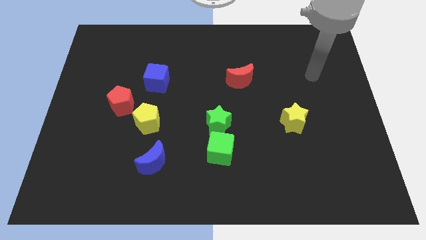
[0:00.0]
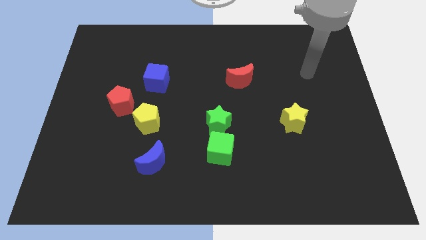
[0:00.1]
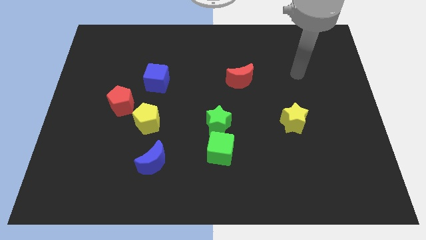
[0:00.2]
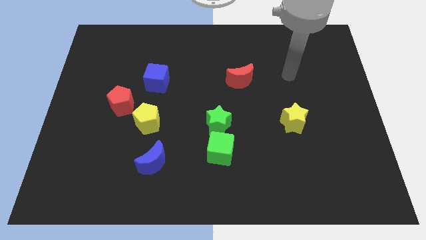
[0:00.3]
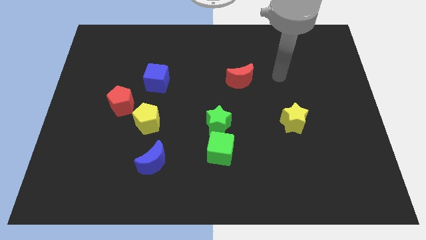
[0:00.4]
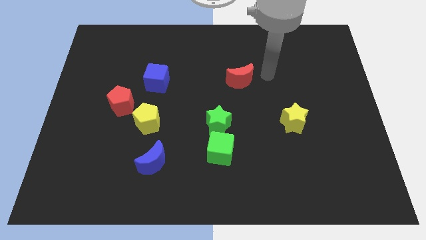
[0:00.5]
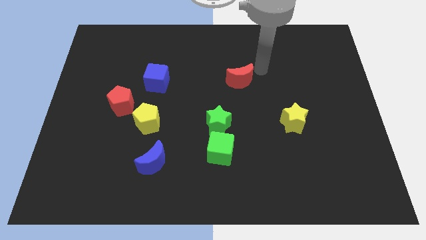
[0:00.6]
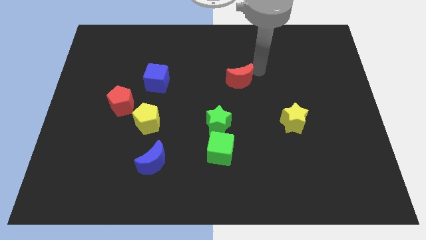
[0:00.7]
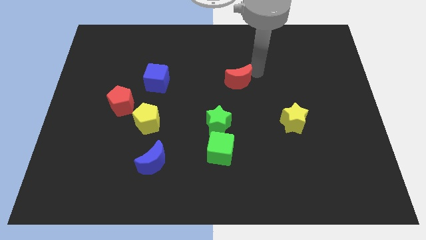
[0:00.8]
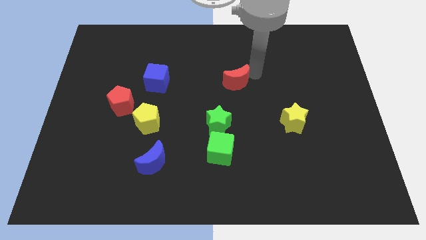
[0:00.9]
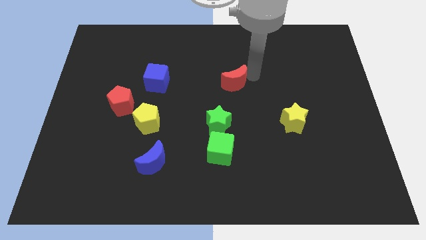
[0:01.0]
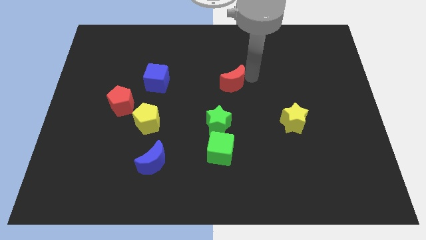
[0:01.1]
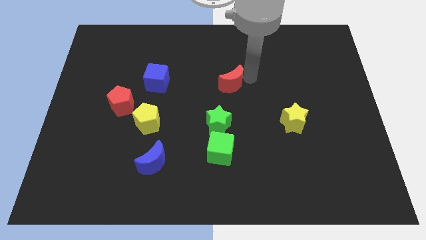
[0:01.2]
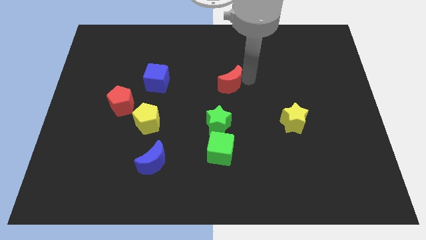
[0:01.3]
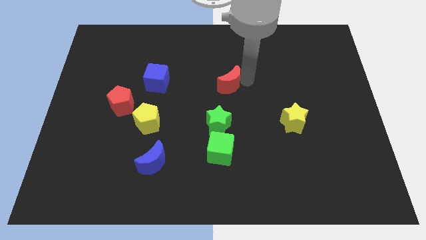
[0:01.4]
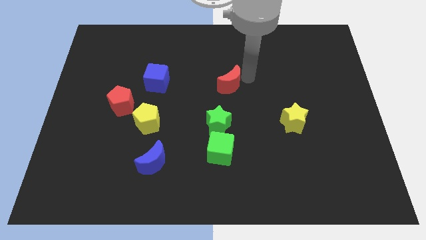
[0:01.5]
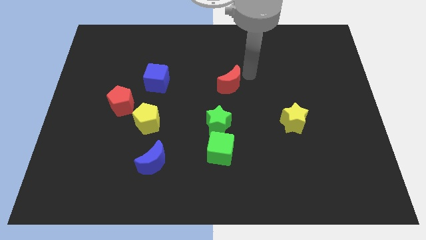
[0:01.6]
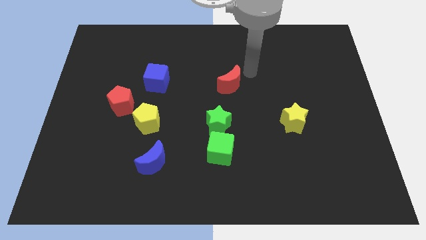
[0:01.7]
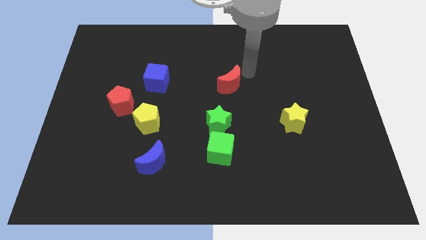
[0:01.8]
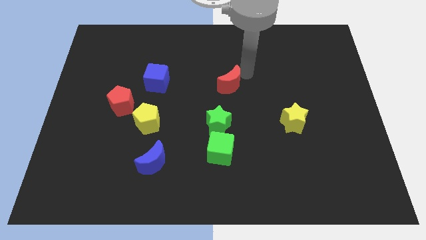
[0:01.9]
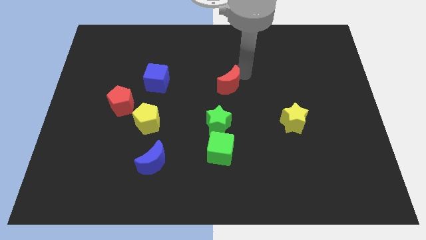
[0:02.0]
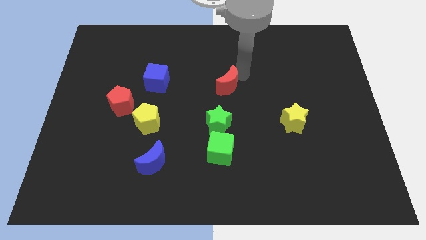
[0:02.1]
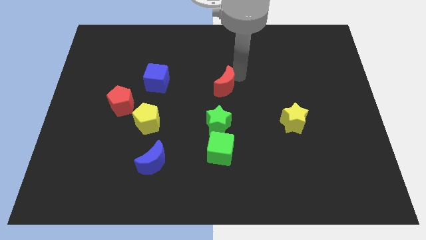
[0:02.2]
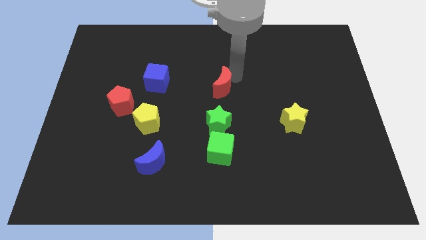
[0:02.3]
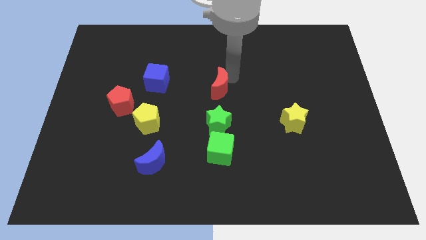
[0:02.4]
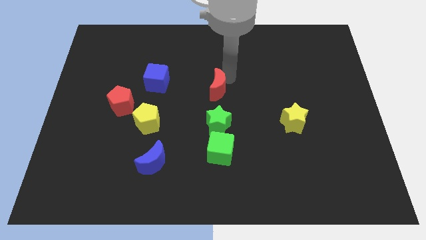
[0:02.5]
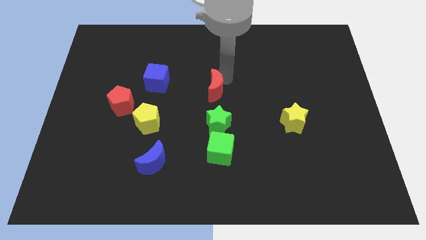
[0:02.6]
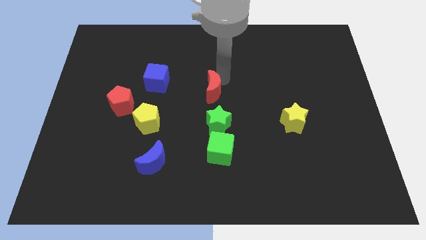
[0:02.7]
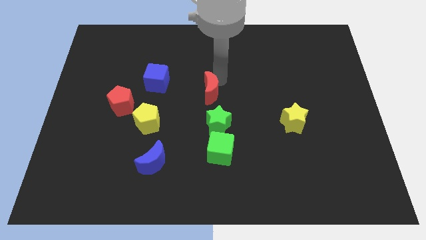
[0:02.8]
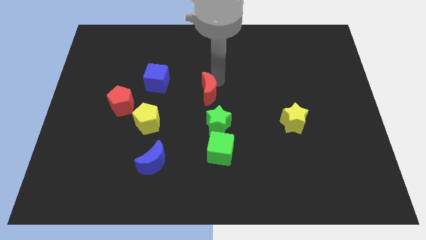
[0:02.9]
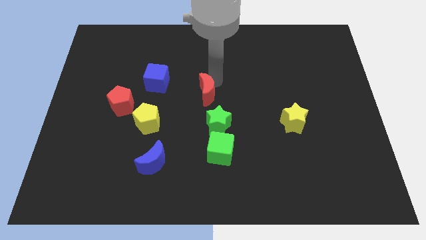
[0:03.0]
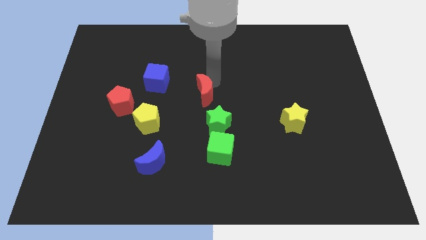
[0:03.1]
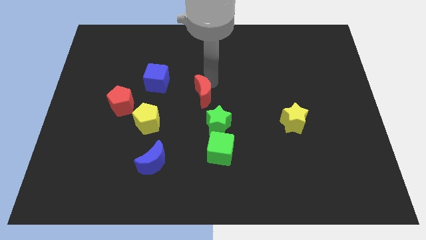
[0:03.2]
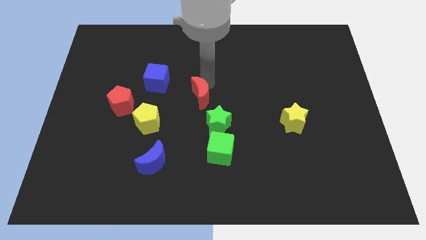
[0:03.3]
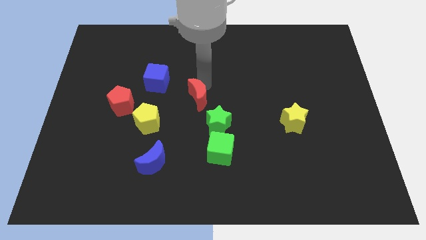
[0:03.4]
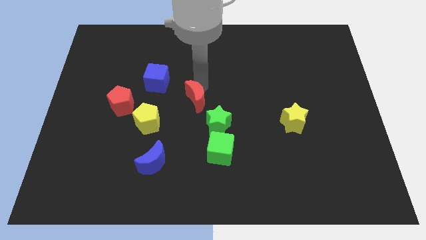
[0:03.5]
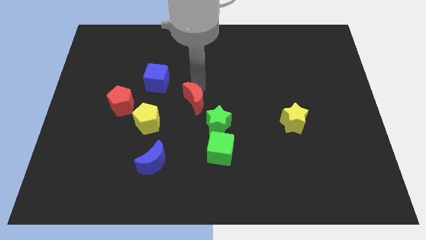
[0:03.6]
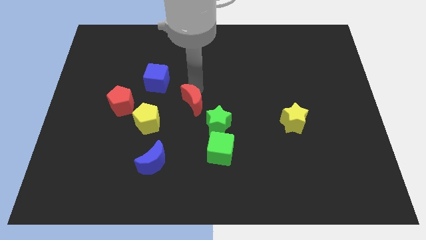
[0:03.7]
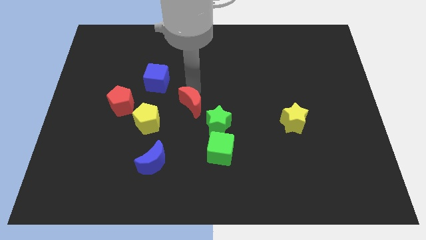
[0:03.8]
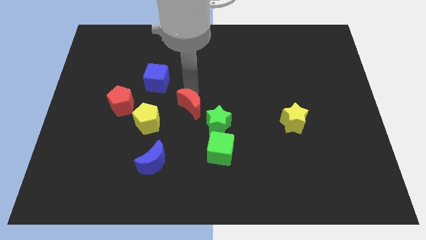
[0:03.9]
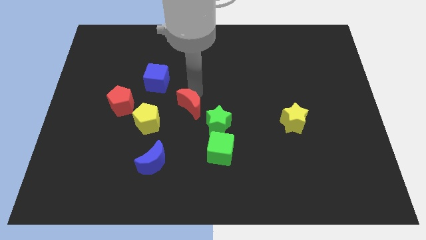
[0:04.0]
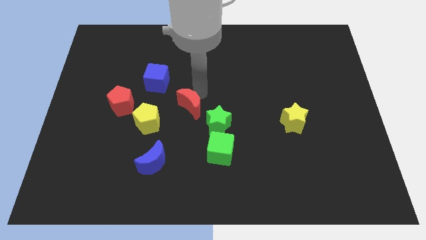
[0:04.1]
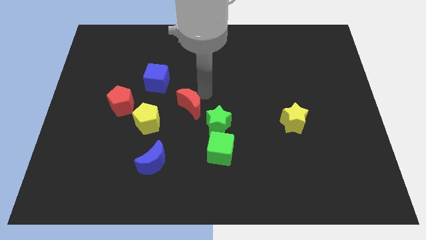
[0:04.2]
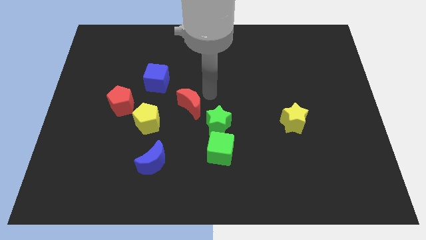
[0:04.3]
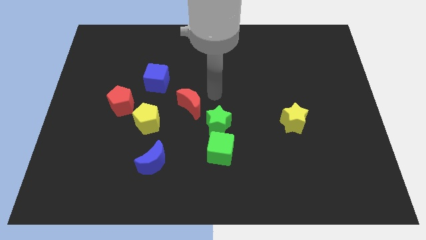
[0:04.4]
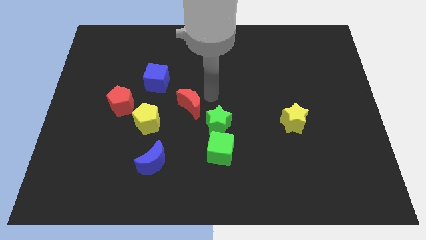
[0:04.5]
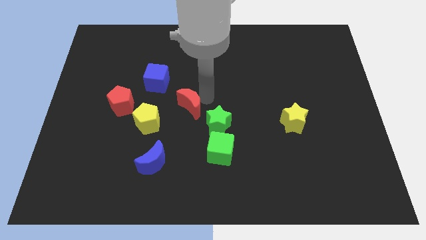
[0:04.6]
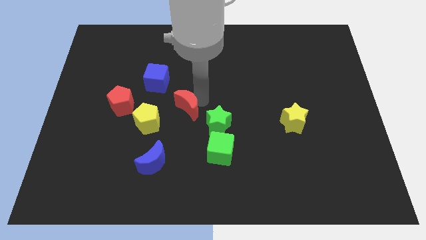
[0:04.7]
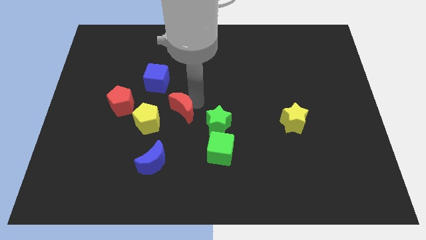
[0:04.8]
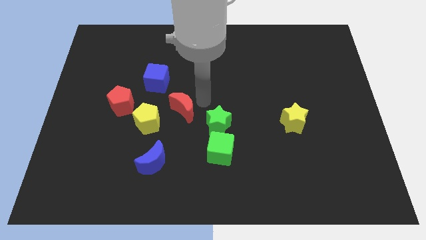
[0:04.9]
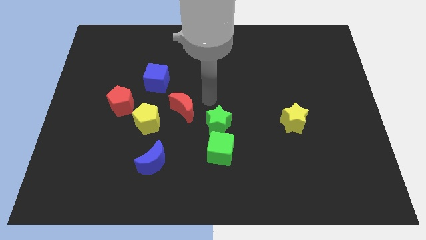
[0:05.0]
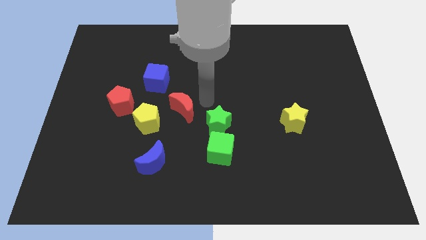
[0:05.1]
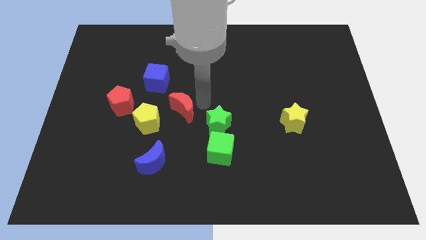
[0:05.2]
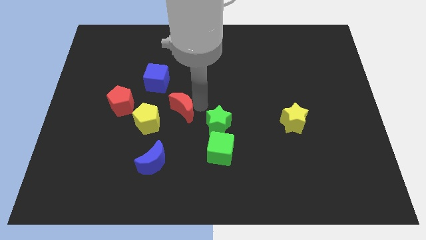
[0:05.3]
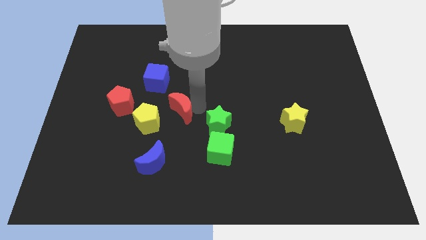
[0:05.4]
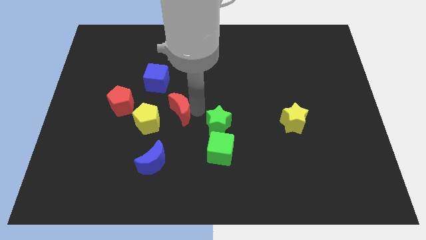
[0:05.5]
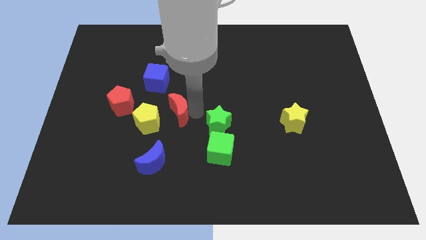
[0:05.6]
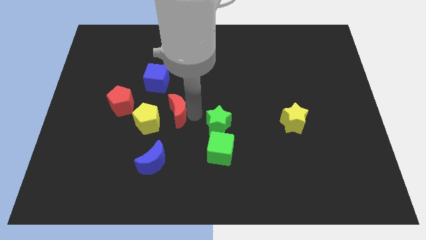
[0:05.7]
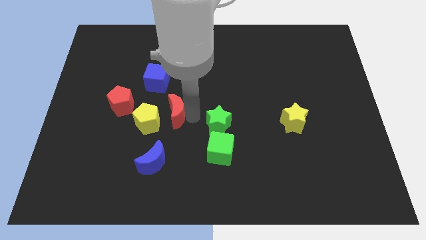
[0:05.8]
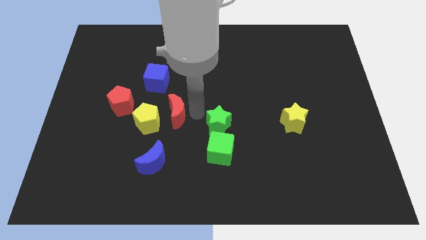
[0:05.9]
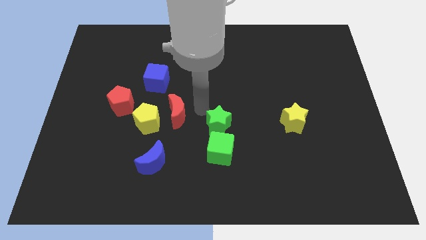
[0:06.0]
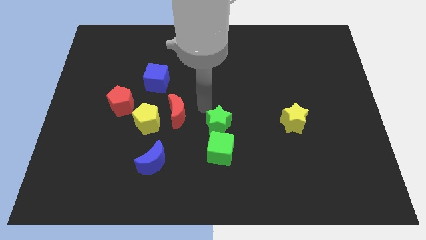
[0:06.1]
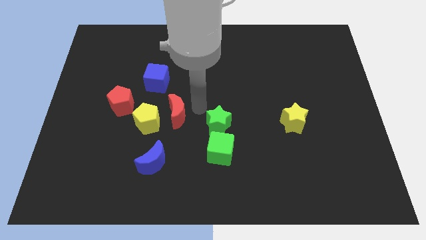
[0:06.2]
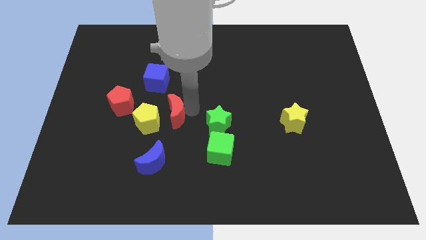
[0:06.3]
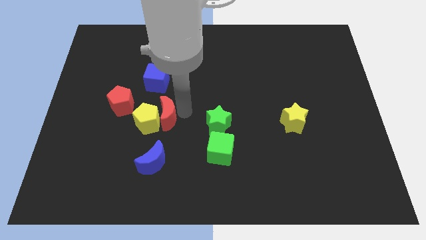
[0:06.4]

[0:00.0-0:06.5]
put the red moon close to the yellow pentagon
